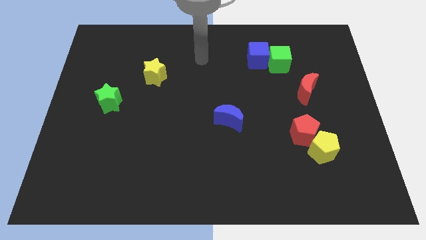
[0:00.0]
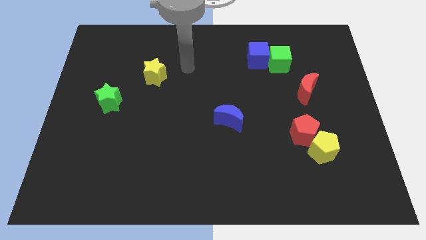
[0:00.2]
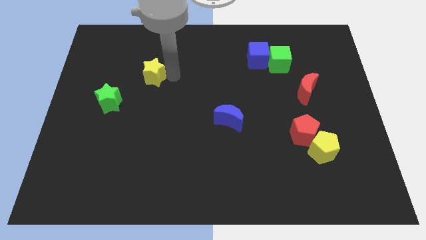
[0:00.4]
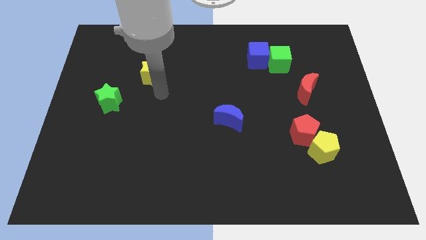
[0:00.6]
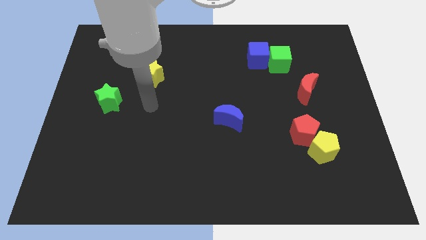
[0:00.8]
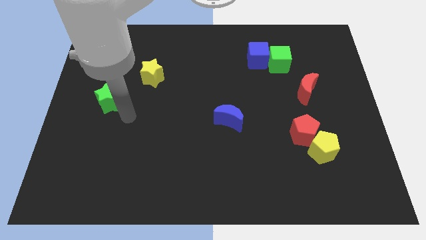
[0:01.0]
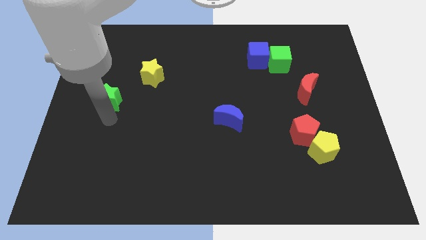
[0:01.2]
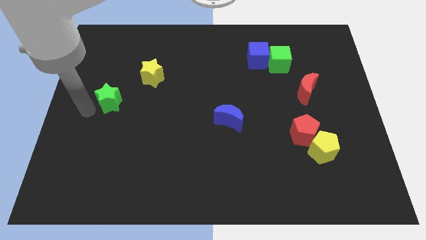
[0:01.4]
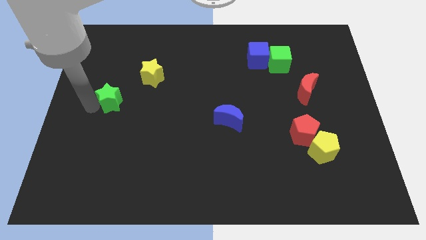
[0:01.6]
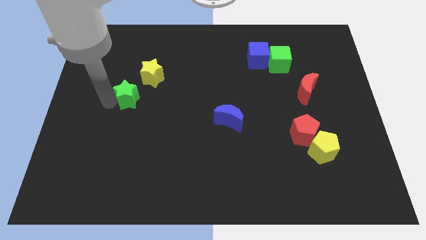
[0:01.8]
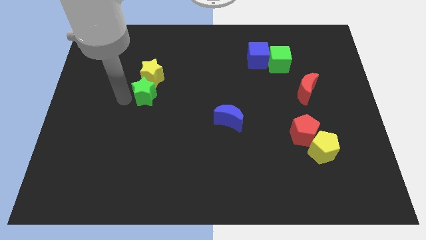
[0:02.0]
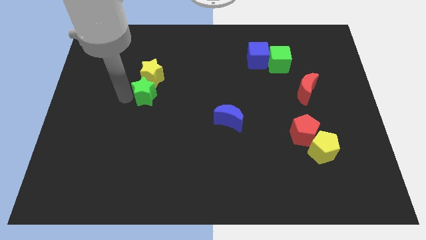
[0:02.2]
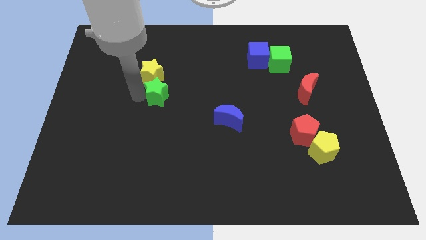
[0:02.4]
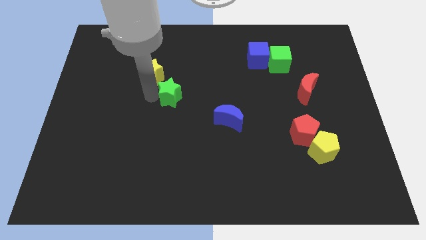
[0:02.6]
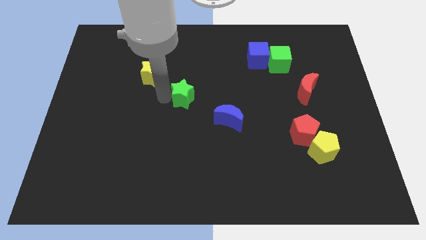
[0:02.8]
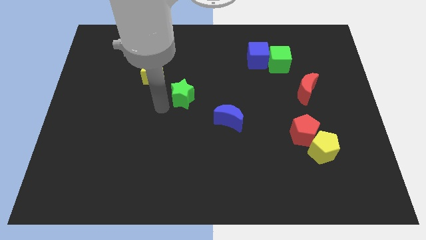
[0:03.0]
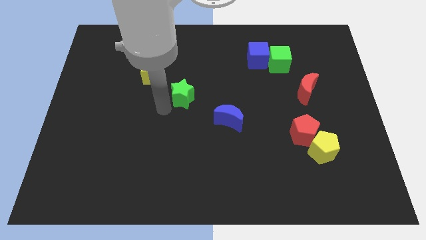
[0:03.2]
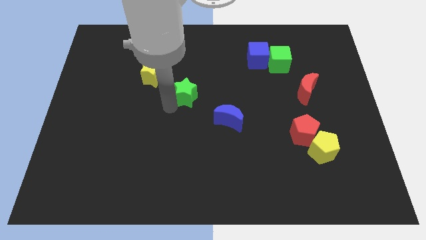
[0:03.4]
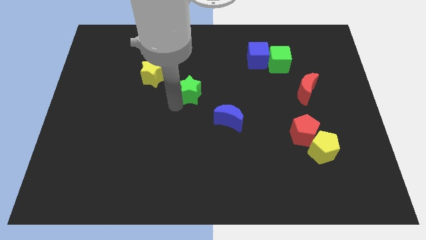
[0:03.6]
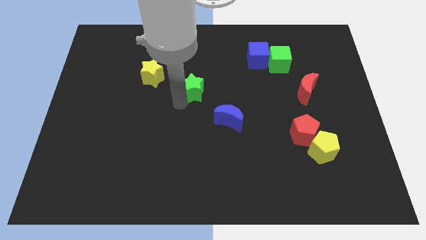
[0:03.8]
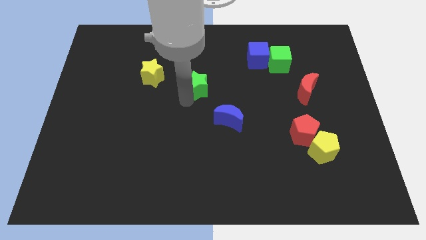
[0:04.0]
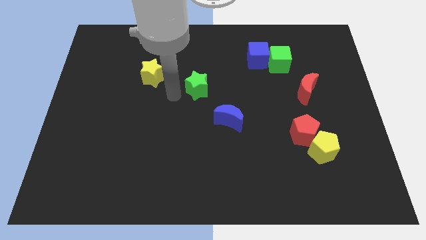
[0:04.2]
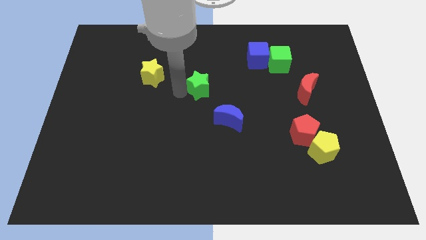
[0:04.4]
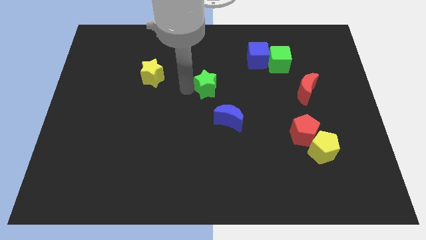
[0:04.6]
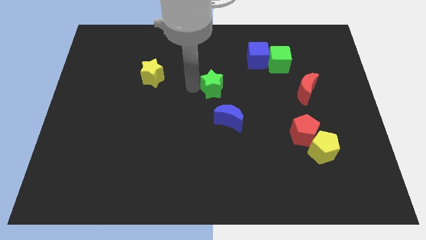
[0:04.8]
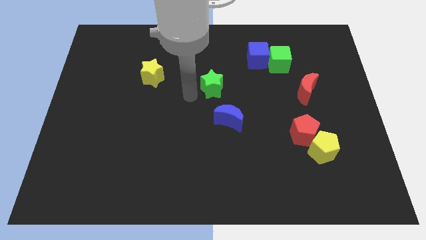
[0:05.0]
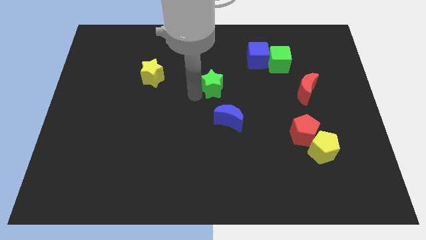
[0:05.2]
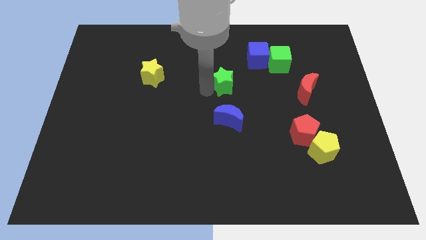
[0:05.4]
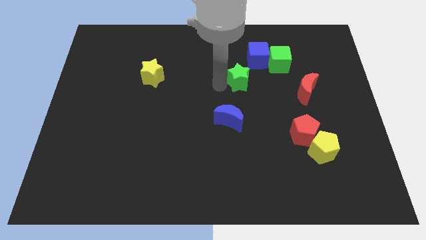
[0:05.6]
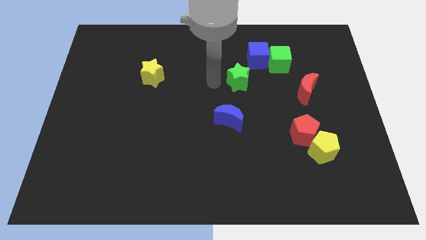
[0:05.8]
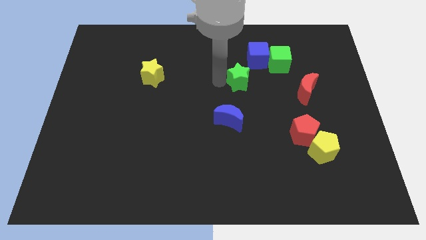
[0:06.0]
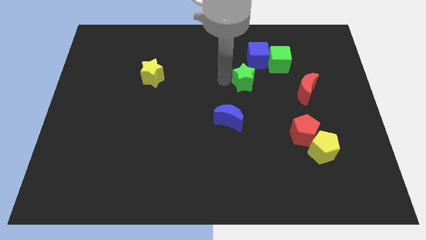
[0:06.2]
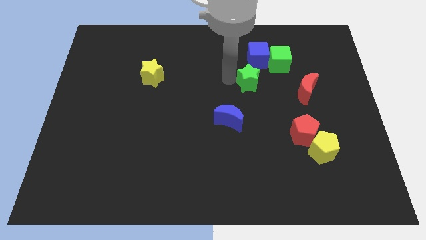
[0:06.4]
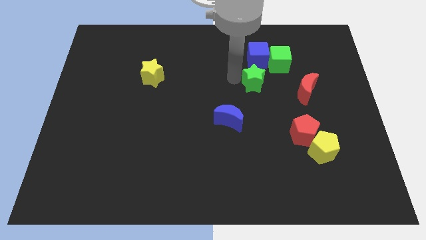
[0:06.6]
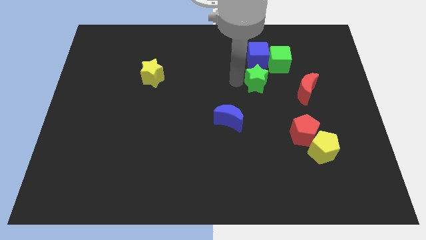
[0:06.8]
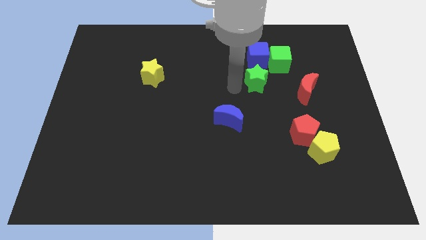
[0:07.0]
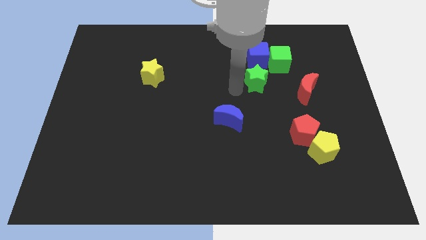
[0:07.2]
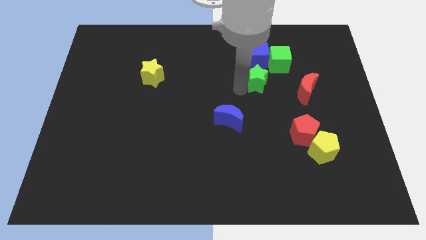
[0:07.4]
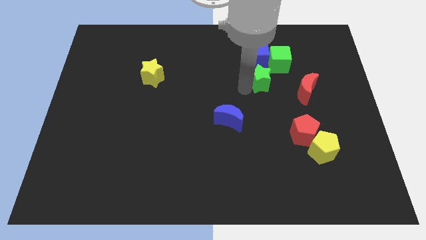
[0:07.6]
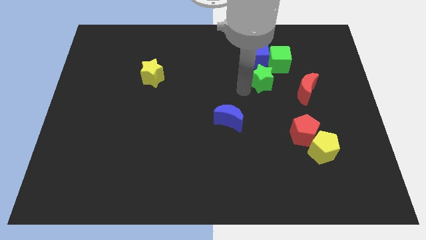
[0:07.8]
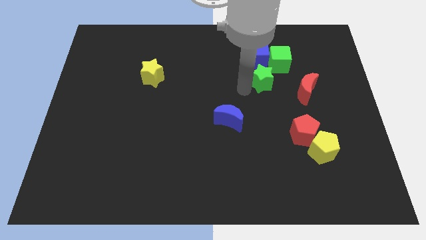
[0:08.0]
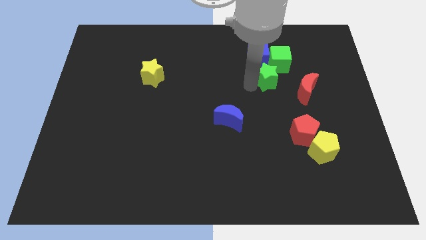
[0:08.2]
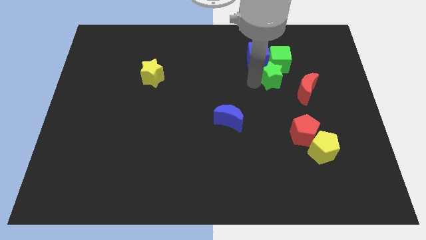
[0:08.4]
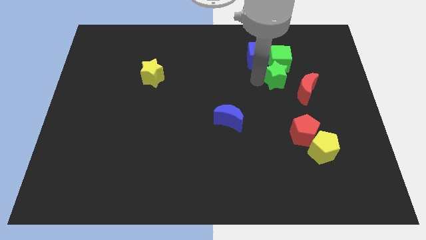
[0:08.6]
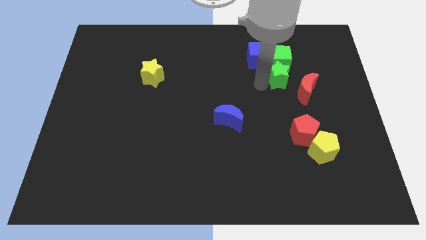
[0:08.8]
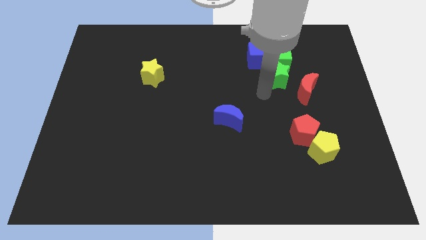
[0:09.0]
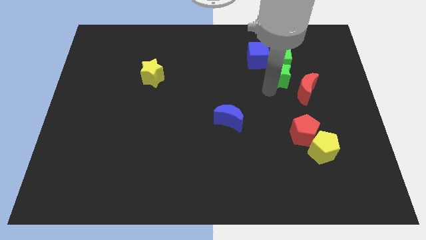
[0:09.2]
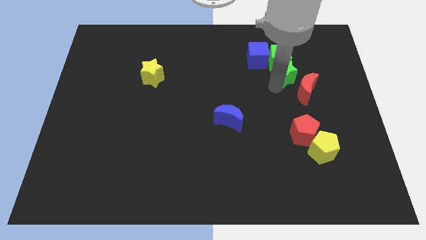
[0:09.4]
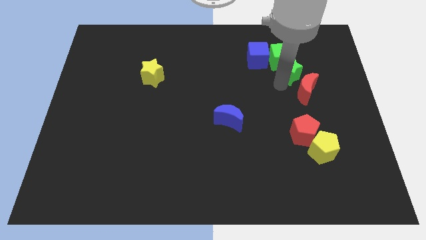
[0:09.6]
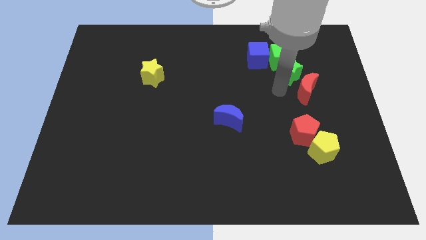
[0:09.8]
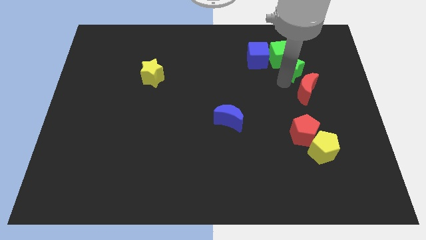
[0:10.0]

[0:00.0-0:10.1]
move the green star to the right of the blue cube

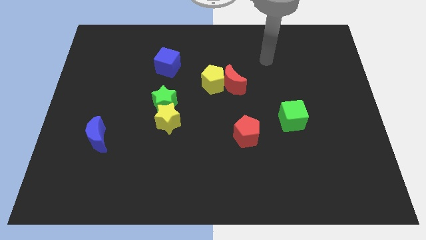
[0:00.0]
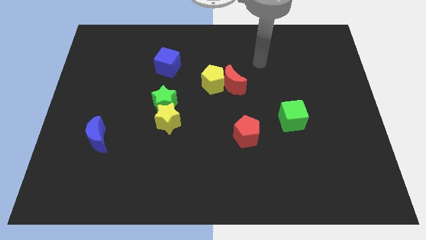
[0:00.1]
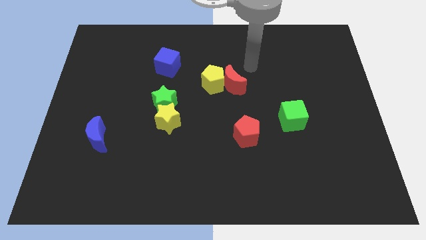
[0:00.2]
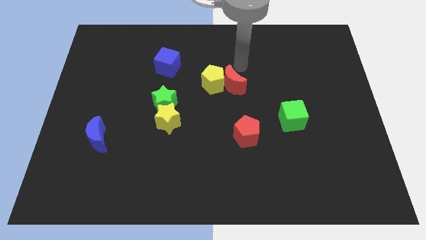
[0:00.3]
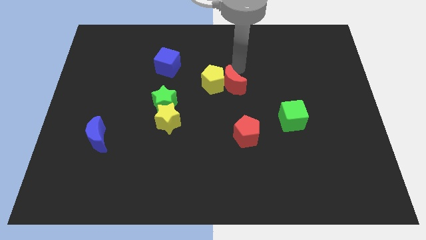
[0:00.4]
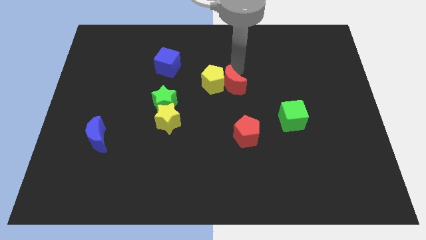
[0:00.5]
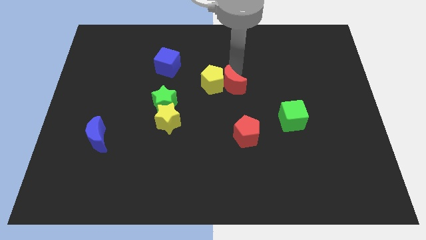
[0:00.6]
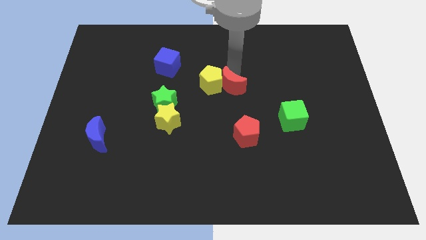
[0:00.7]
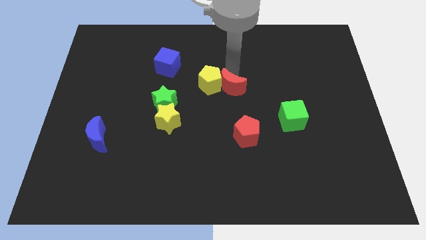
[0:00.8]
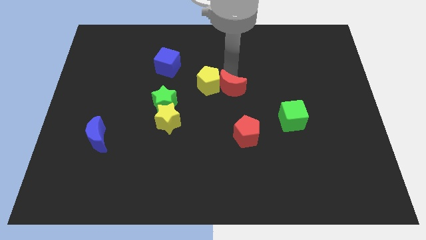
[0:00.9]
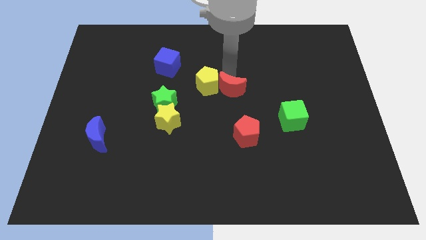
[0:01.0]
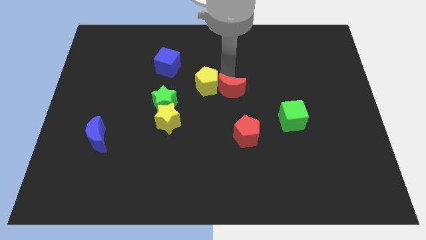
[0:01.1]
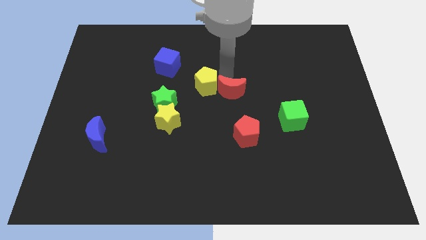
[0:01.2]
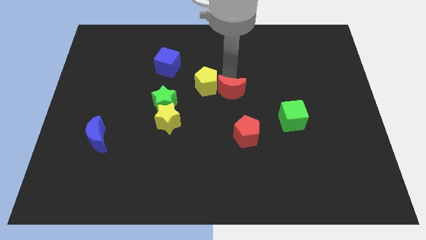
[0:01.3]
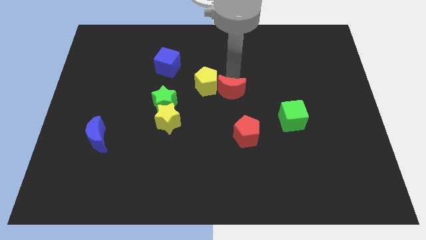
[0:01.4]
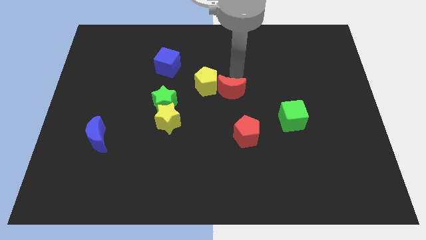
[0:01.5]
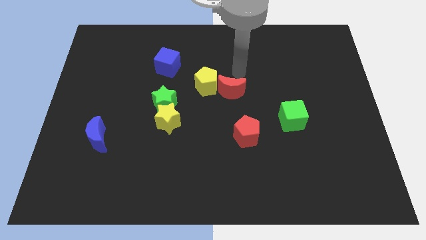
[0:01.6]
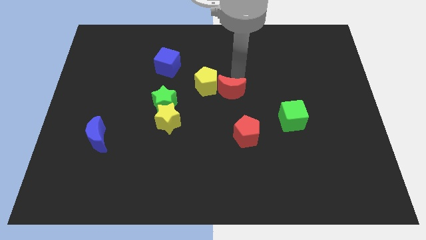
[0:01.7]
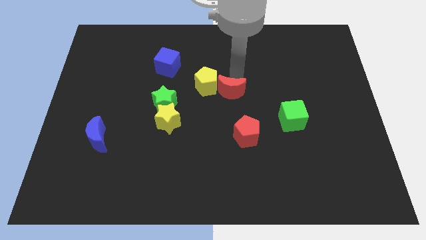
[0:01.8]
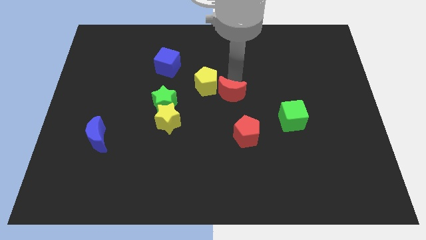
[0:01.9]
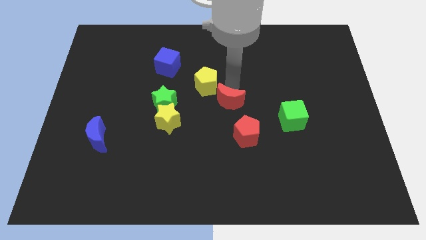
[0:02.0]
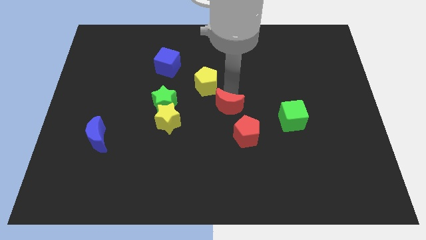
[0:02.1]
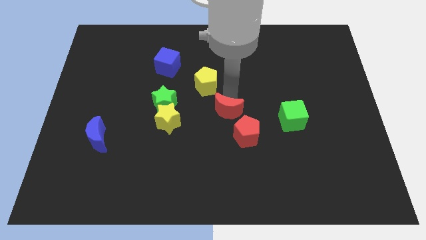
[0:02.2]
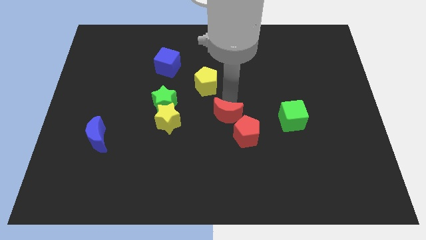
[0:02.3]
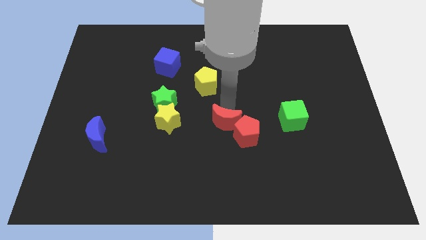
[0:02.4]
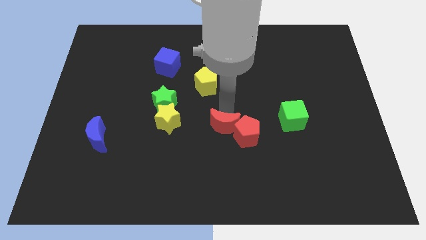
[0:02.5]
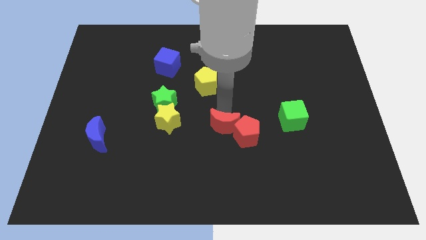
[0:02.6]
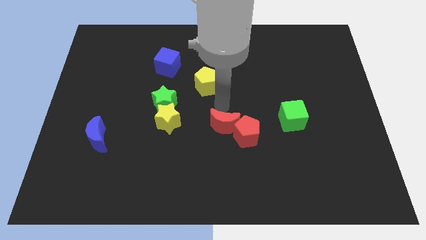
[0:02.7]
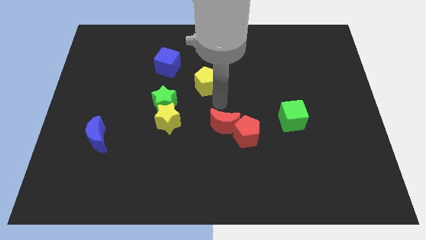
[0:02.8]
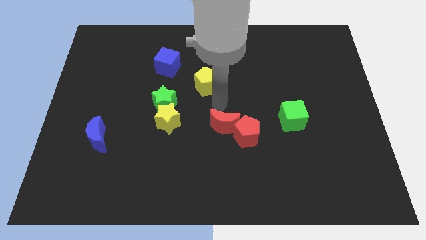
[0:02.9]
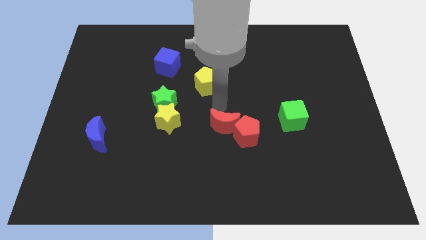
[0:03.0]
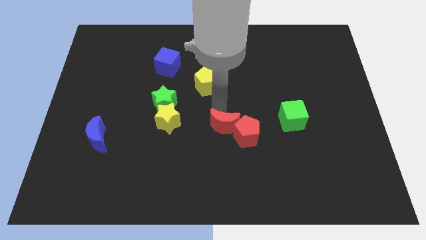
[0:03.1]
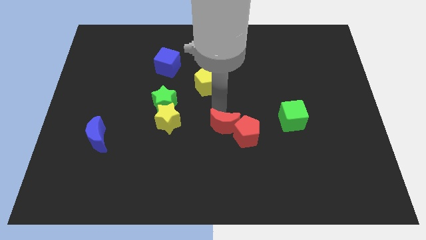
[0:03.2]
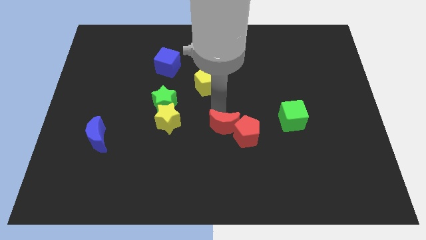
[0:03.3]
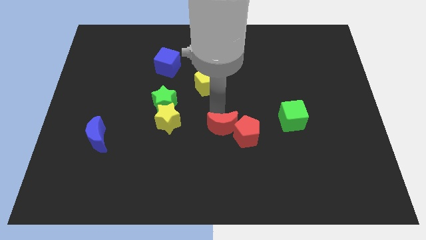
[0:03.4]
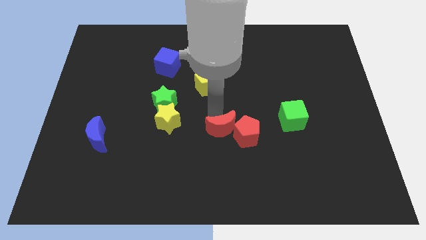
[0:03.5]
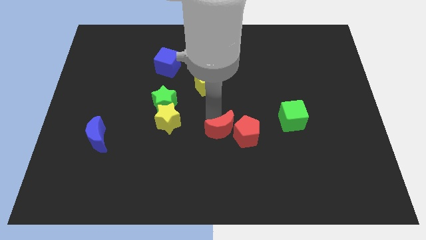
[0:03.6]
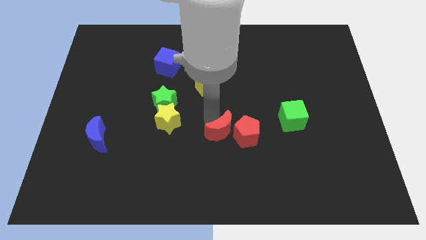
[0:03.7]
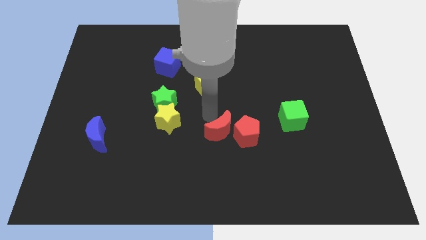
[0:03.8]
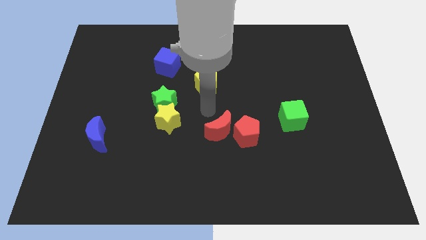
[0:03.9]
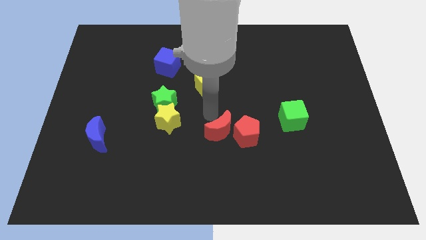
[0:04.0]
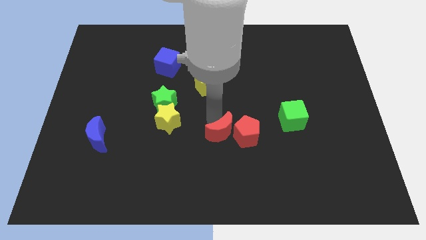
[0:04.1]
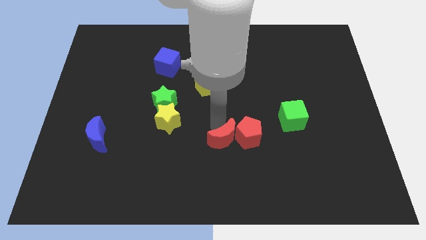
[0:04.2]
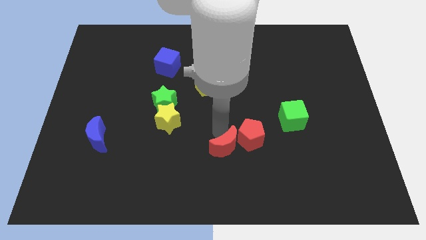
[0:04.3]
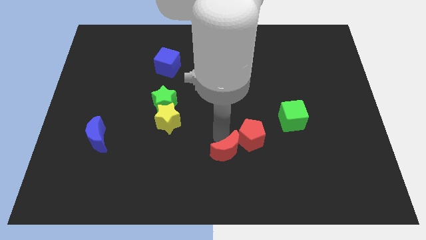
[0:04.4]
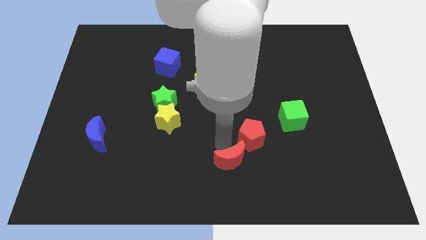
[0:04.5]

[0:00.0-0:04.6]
push the red moon to the bottom side of the red pentagon
